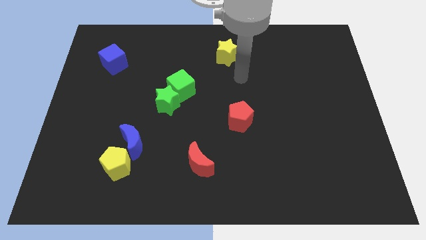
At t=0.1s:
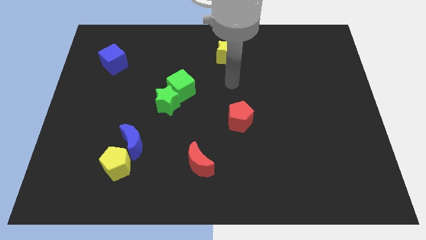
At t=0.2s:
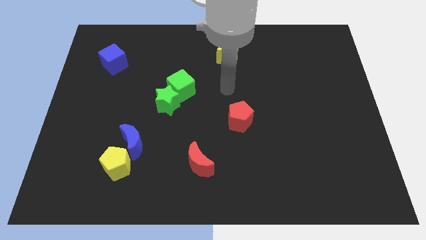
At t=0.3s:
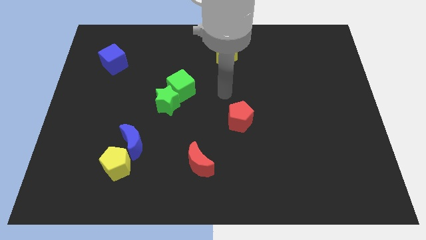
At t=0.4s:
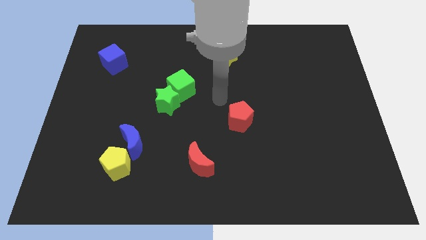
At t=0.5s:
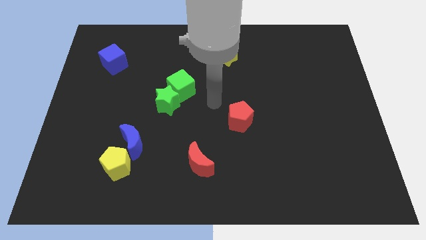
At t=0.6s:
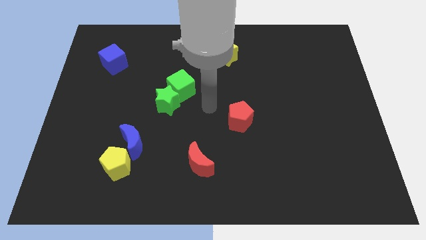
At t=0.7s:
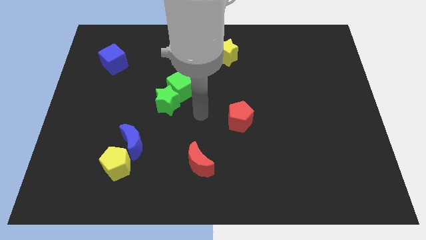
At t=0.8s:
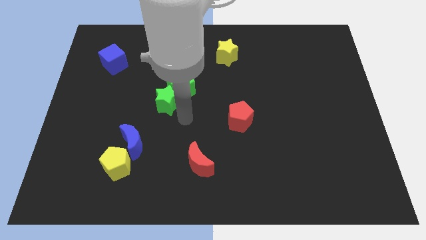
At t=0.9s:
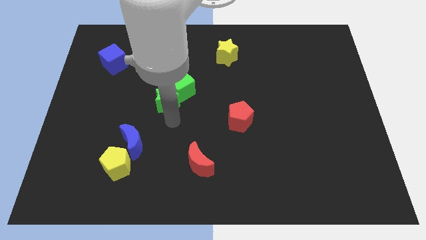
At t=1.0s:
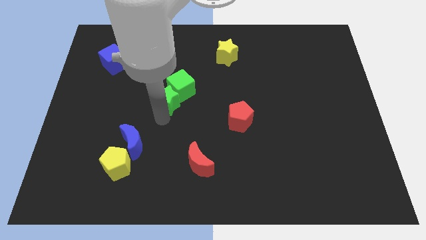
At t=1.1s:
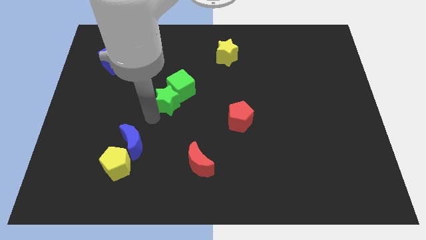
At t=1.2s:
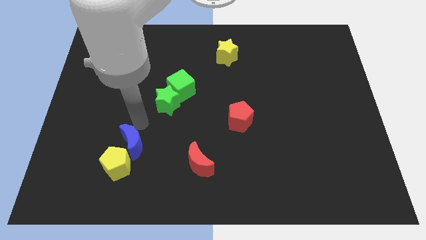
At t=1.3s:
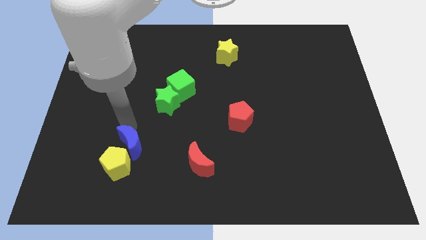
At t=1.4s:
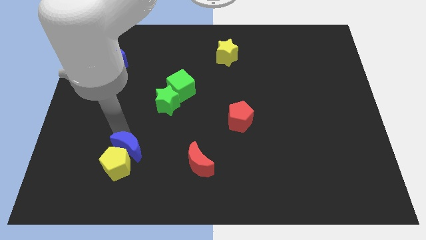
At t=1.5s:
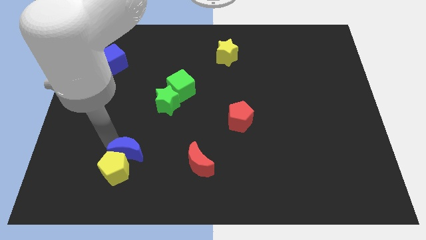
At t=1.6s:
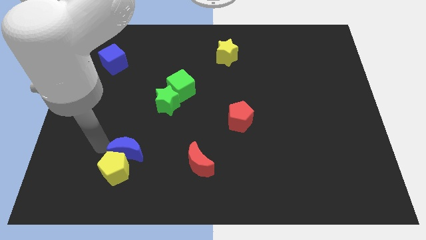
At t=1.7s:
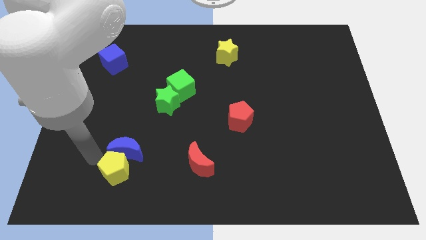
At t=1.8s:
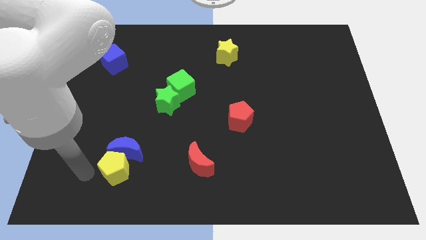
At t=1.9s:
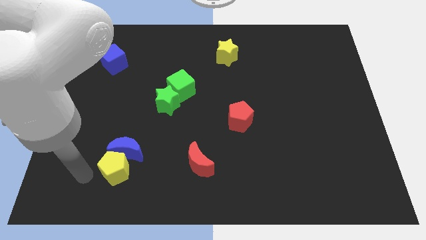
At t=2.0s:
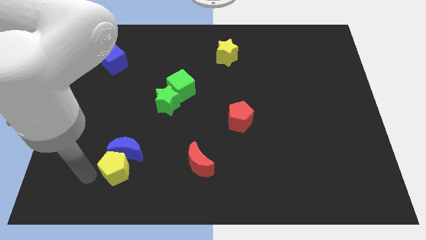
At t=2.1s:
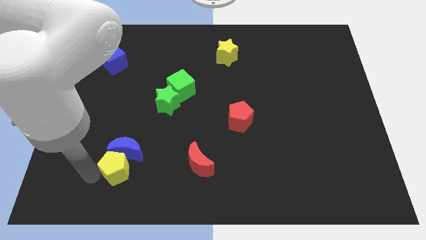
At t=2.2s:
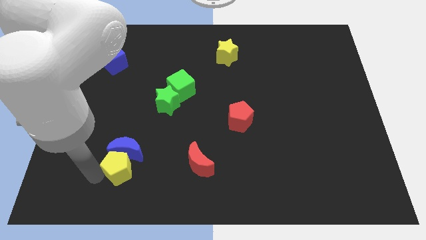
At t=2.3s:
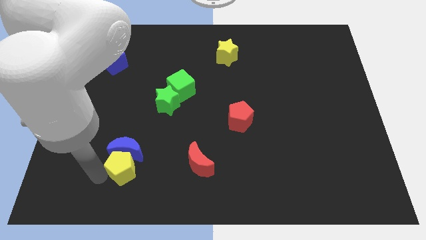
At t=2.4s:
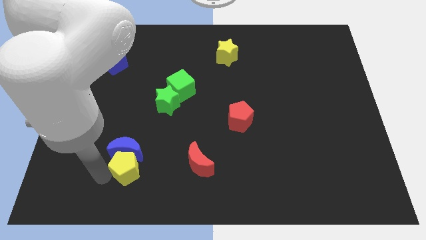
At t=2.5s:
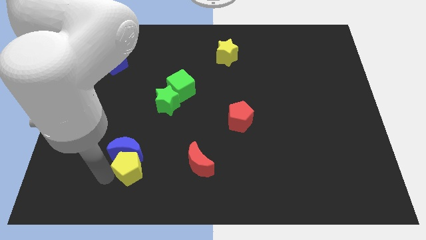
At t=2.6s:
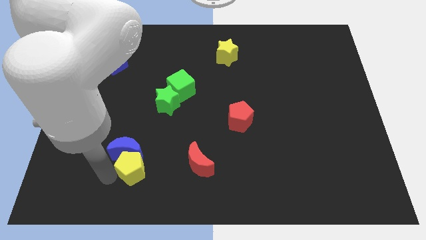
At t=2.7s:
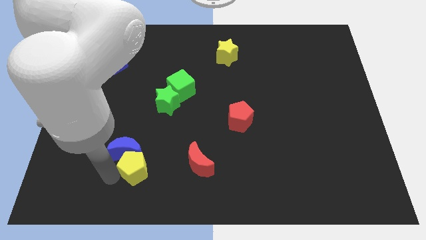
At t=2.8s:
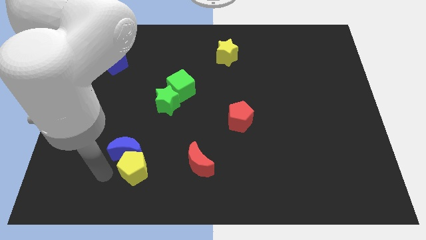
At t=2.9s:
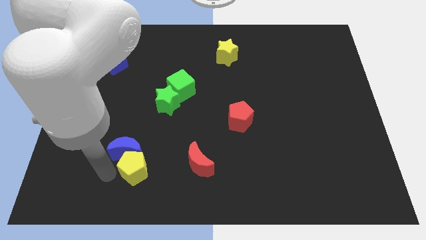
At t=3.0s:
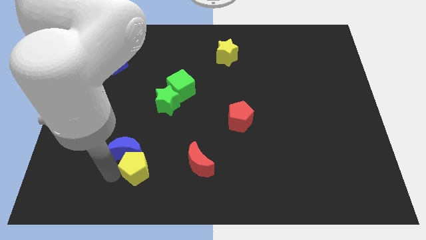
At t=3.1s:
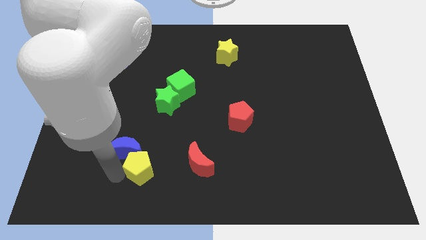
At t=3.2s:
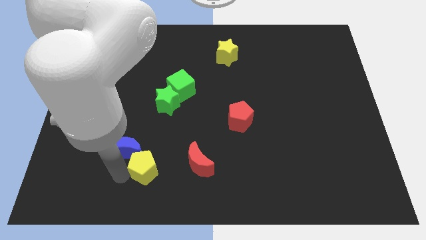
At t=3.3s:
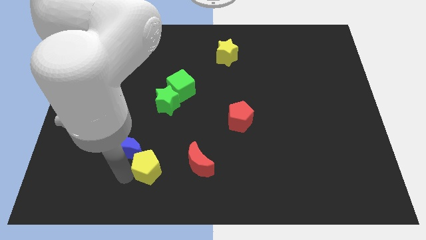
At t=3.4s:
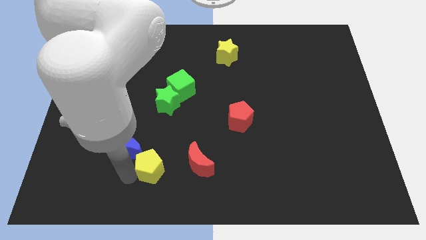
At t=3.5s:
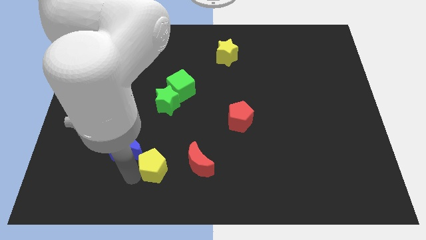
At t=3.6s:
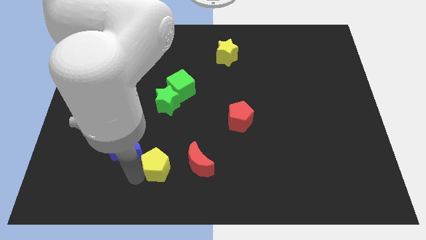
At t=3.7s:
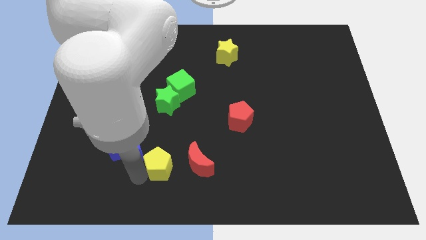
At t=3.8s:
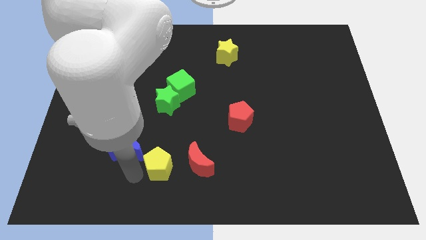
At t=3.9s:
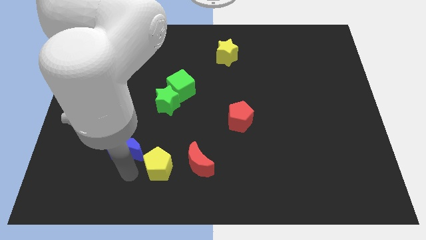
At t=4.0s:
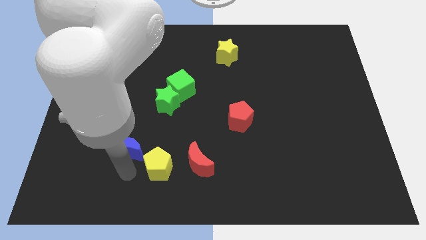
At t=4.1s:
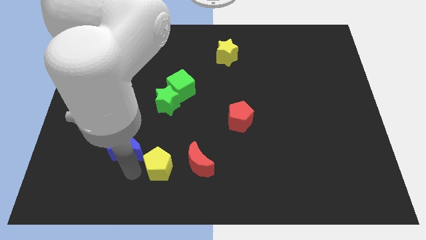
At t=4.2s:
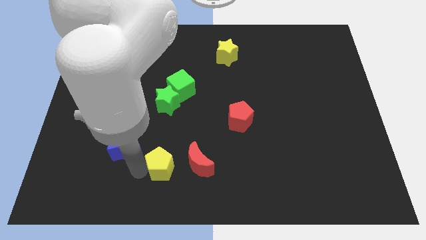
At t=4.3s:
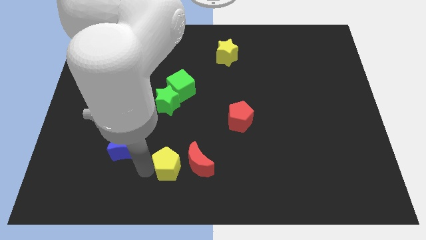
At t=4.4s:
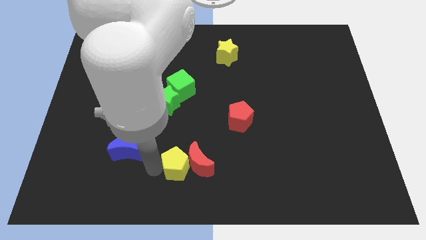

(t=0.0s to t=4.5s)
slide the yellow pentagon to the red moon

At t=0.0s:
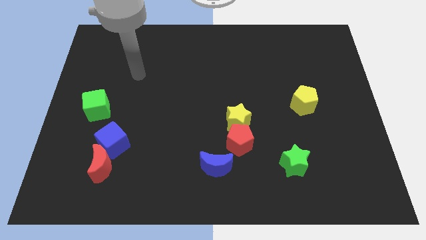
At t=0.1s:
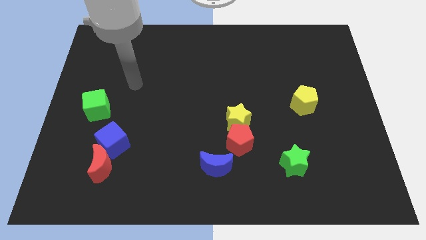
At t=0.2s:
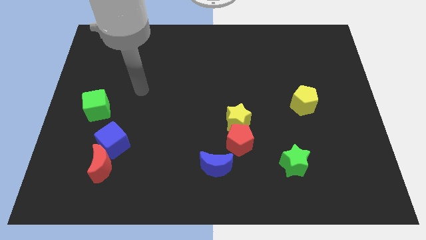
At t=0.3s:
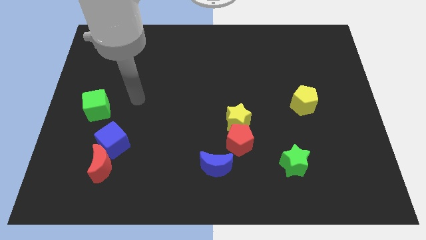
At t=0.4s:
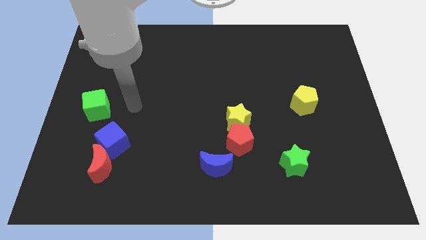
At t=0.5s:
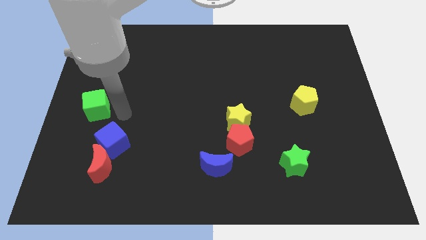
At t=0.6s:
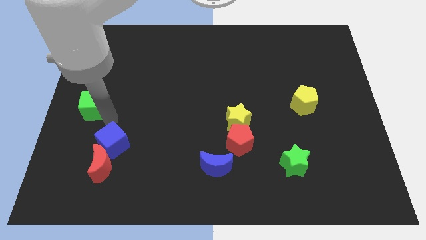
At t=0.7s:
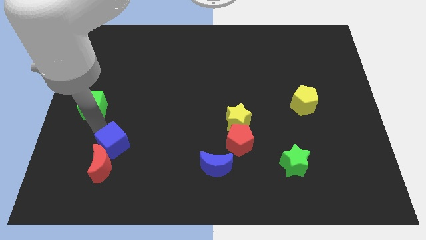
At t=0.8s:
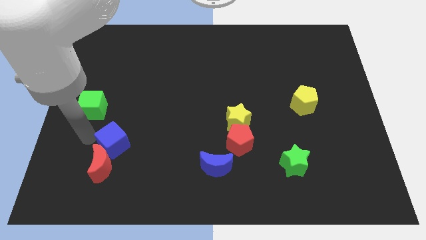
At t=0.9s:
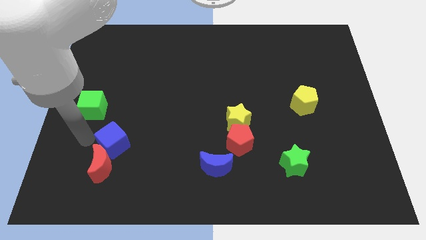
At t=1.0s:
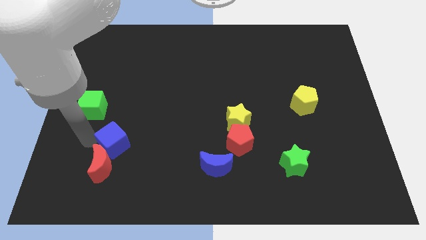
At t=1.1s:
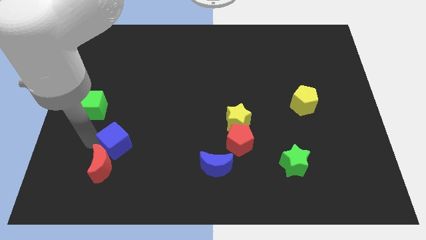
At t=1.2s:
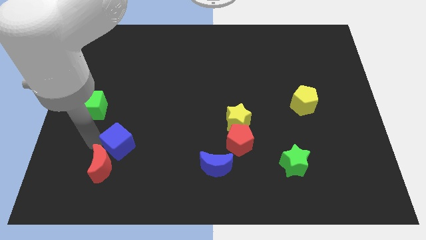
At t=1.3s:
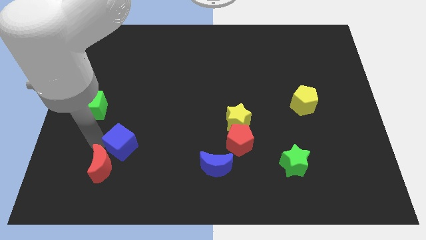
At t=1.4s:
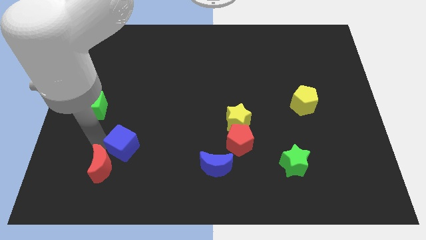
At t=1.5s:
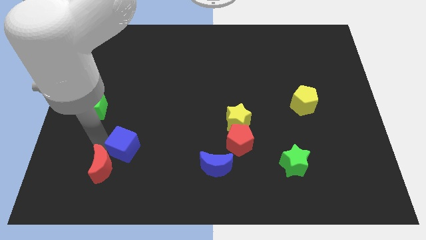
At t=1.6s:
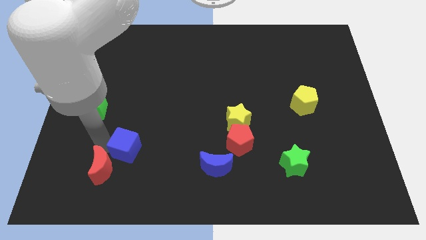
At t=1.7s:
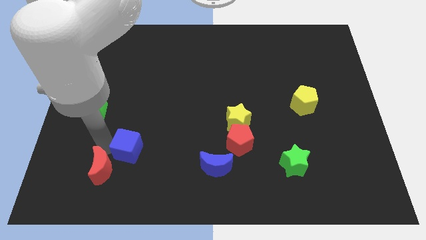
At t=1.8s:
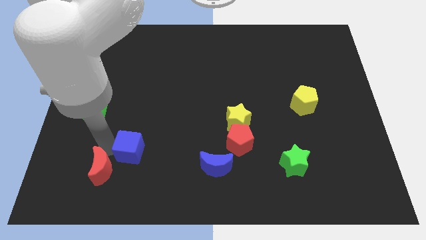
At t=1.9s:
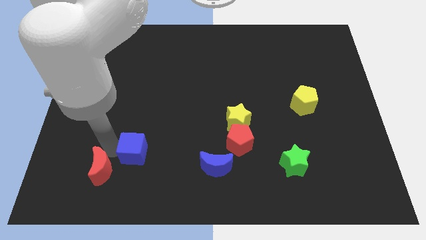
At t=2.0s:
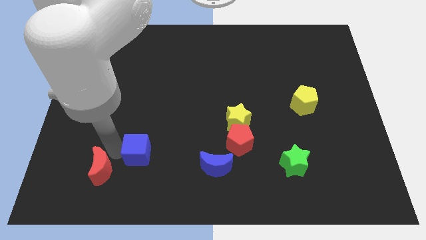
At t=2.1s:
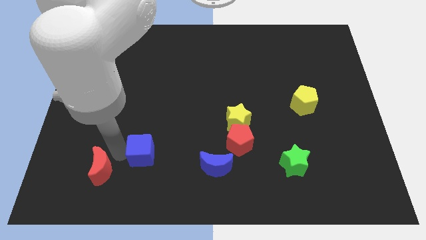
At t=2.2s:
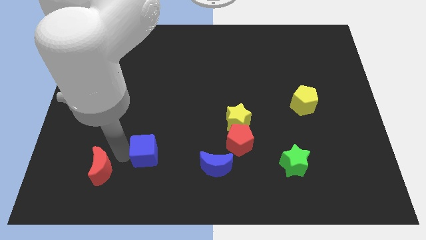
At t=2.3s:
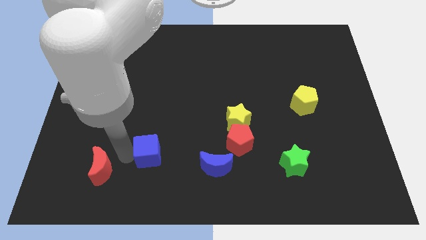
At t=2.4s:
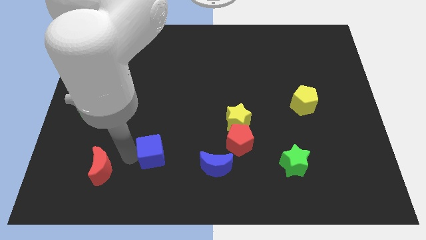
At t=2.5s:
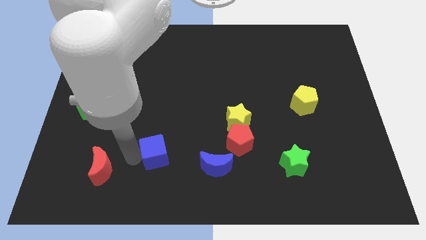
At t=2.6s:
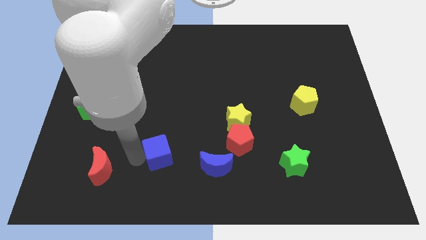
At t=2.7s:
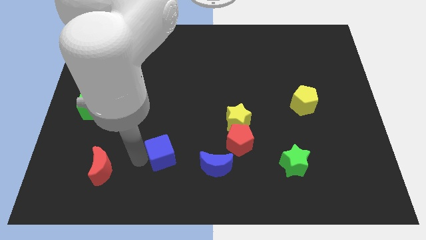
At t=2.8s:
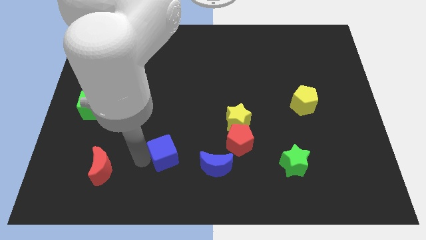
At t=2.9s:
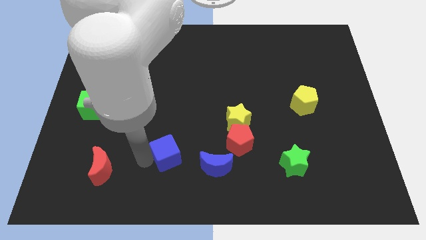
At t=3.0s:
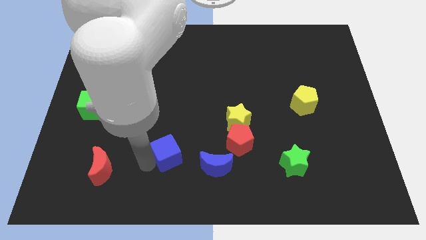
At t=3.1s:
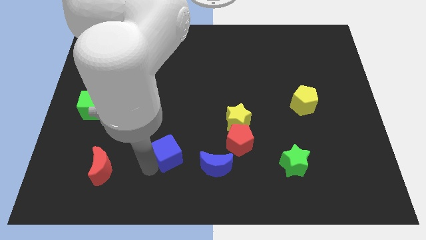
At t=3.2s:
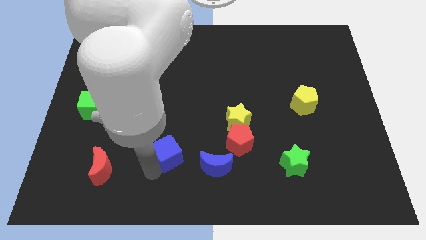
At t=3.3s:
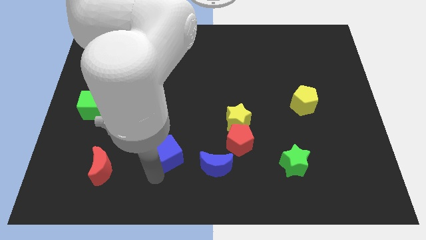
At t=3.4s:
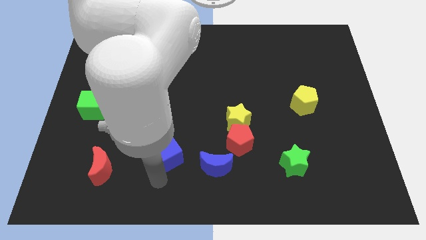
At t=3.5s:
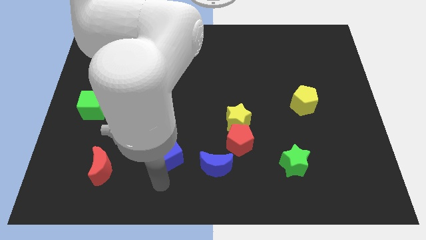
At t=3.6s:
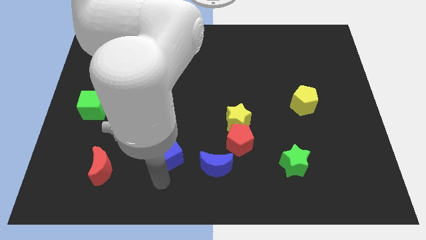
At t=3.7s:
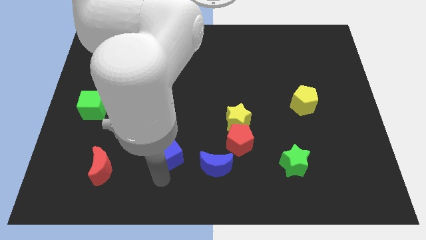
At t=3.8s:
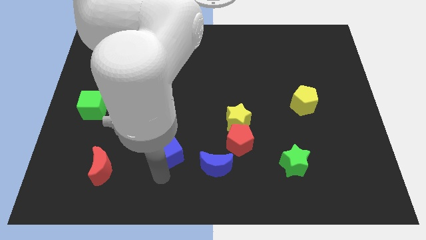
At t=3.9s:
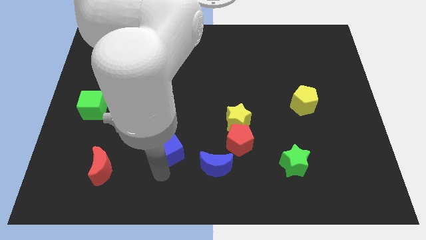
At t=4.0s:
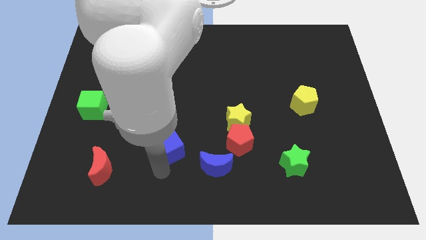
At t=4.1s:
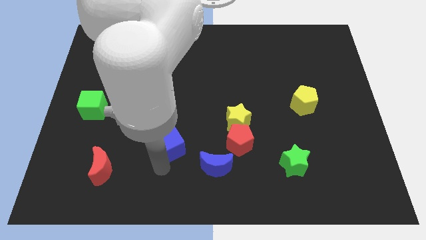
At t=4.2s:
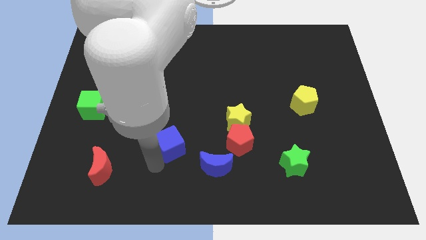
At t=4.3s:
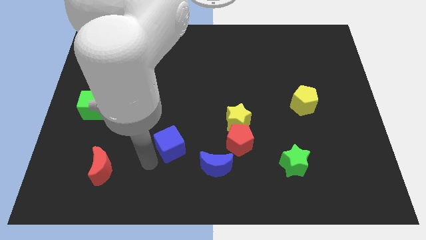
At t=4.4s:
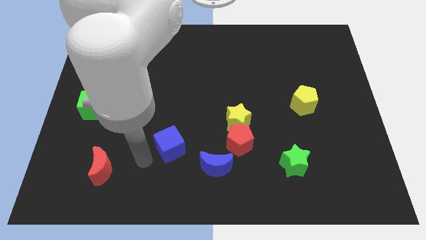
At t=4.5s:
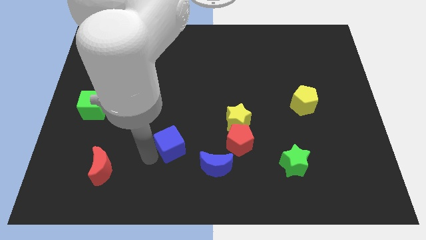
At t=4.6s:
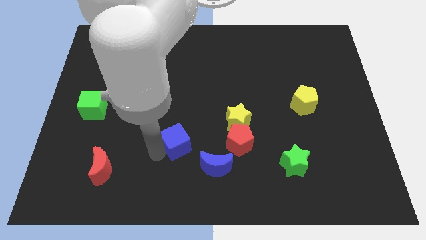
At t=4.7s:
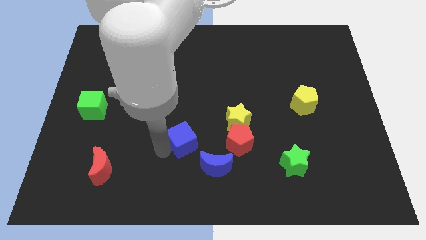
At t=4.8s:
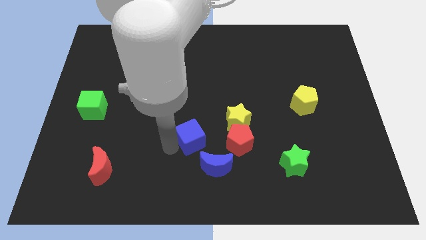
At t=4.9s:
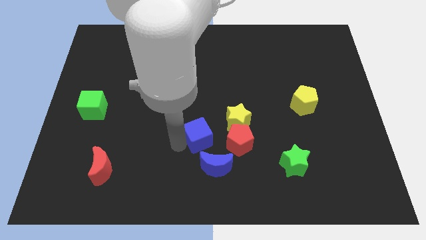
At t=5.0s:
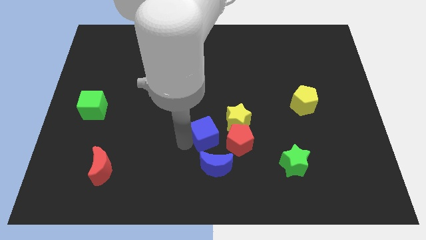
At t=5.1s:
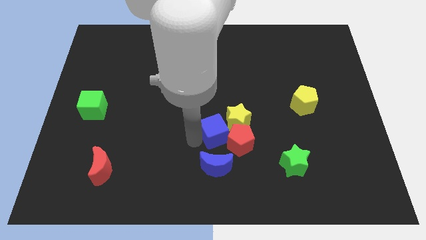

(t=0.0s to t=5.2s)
move the blue cube next to the yellow star
